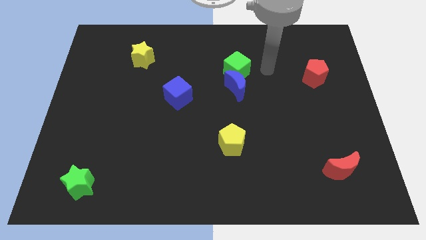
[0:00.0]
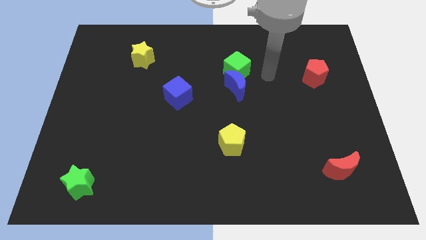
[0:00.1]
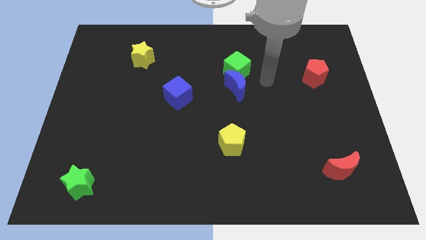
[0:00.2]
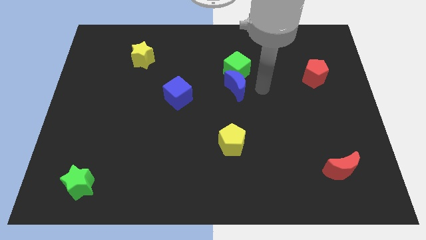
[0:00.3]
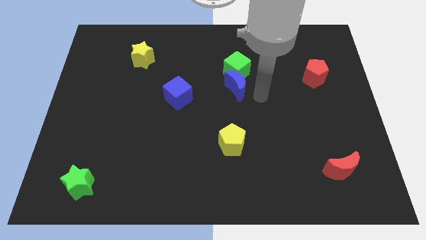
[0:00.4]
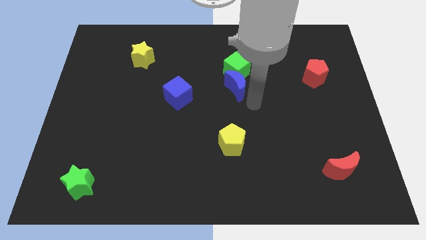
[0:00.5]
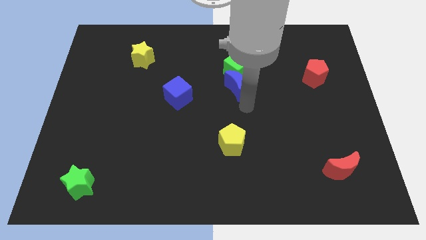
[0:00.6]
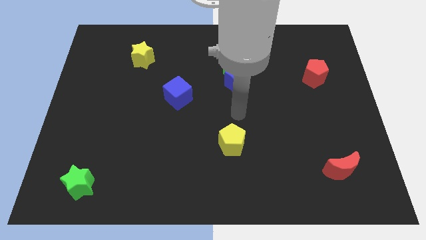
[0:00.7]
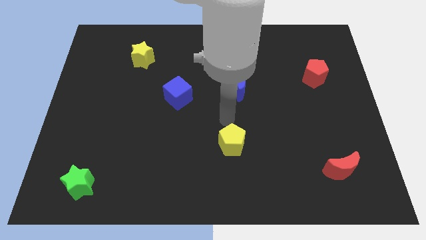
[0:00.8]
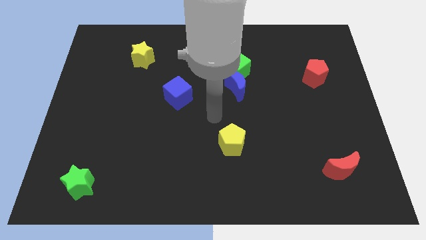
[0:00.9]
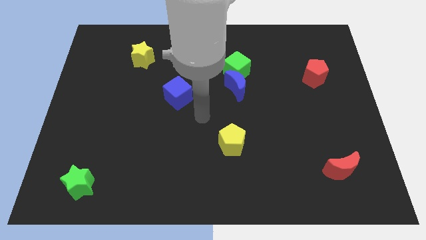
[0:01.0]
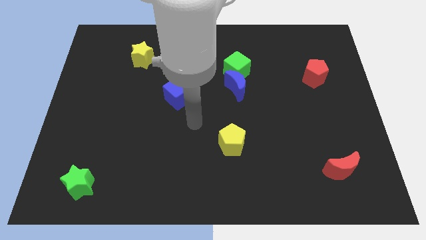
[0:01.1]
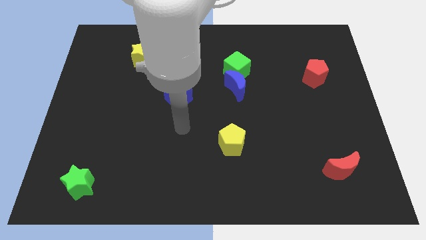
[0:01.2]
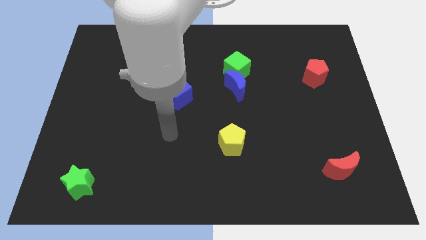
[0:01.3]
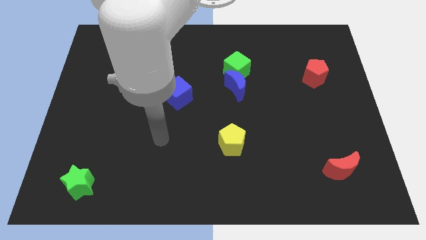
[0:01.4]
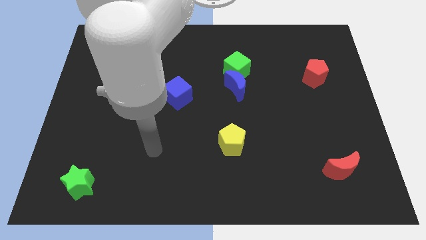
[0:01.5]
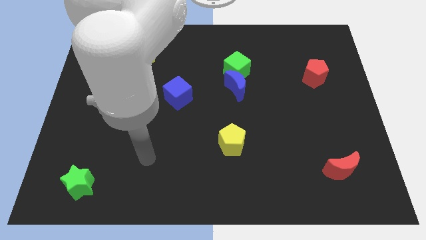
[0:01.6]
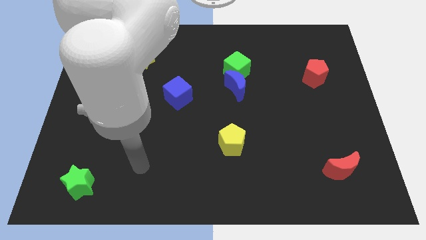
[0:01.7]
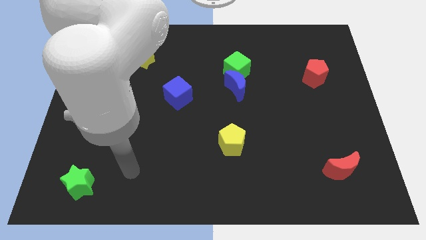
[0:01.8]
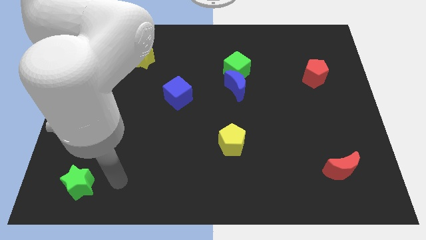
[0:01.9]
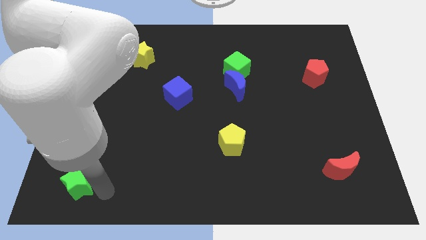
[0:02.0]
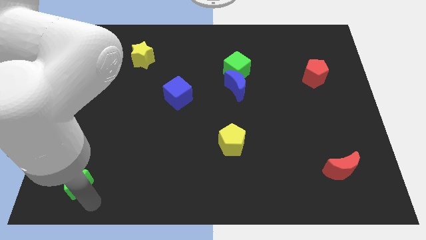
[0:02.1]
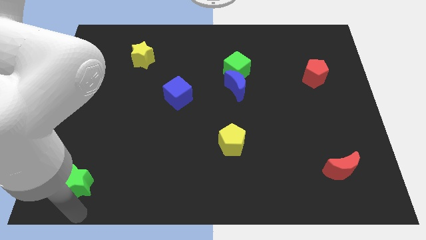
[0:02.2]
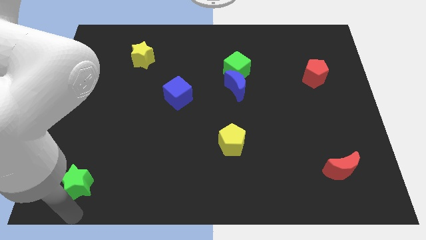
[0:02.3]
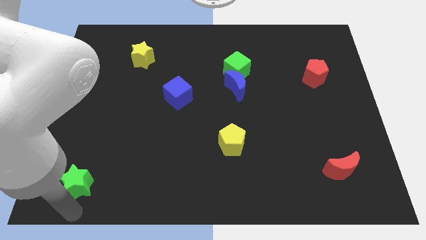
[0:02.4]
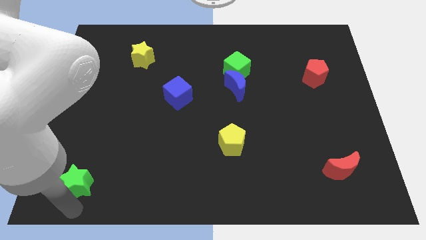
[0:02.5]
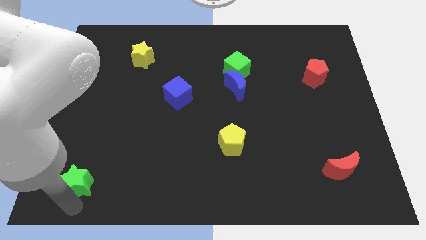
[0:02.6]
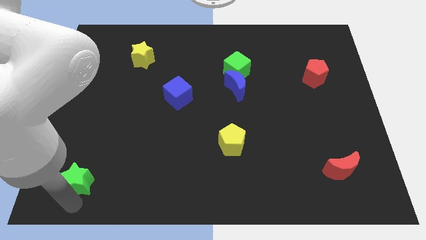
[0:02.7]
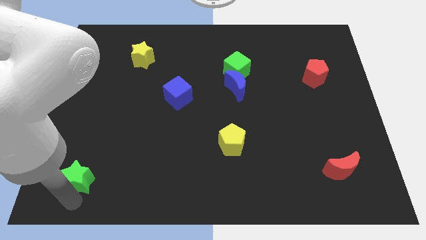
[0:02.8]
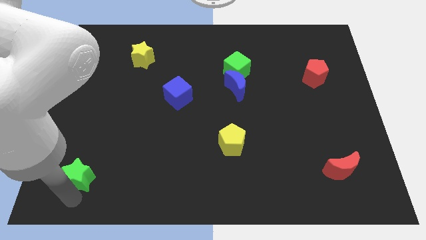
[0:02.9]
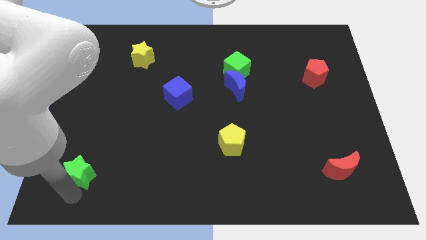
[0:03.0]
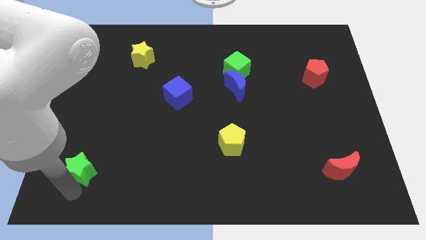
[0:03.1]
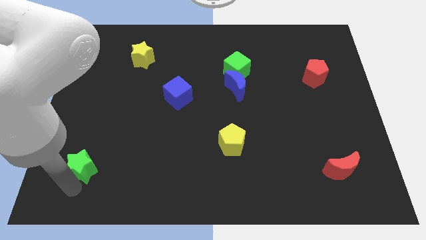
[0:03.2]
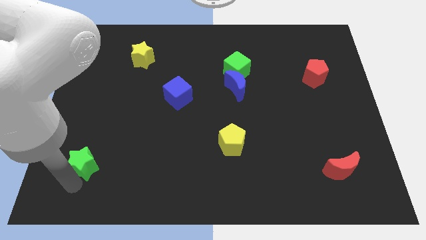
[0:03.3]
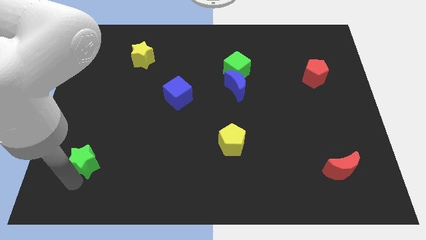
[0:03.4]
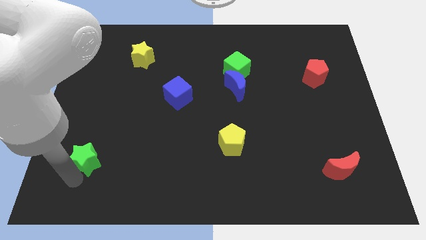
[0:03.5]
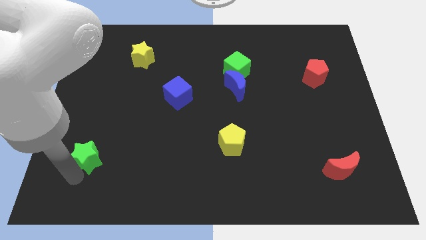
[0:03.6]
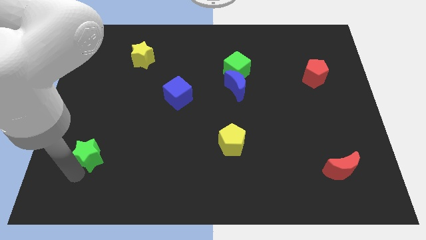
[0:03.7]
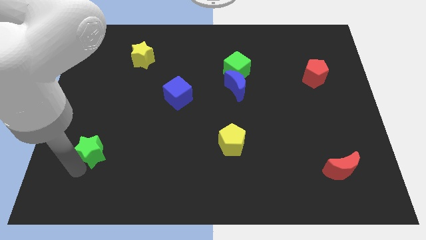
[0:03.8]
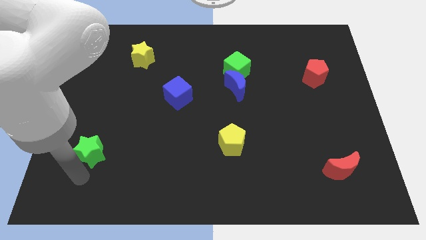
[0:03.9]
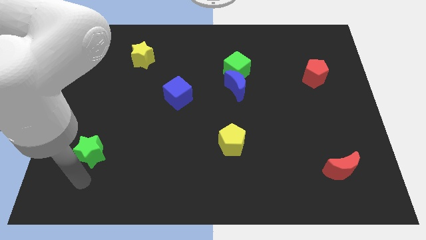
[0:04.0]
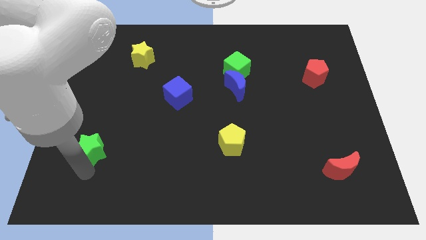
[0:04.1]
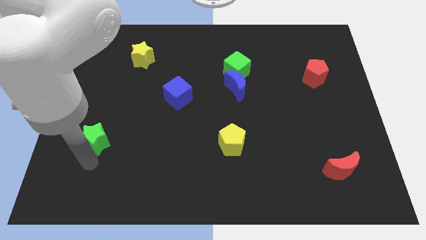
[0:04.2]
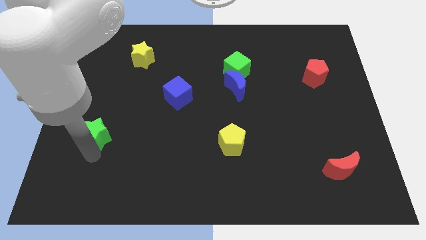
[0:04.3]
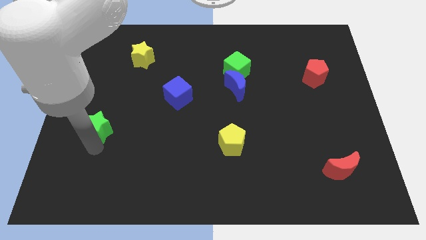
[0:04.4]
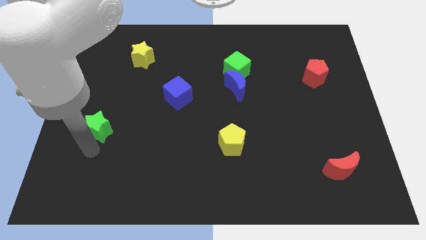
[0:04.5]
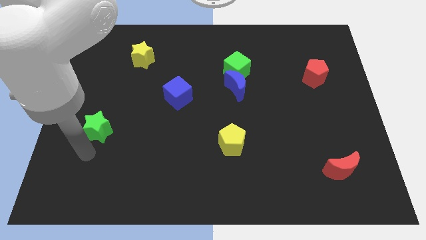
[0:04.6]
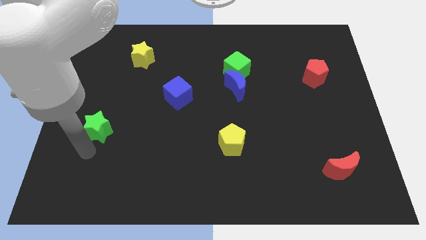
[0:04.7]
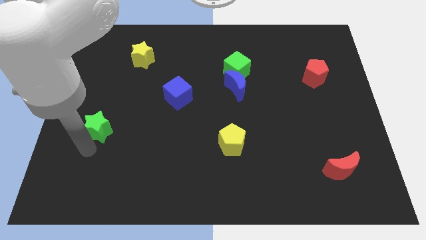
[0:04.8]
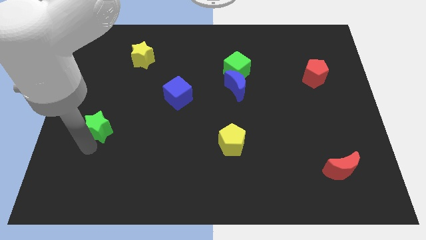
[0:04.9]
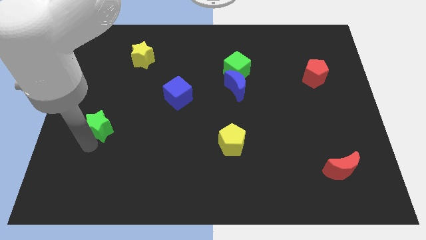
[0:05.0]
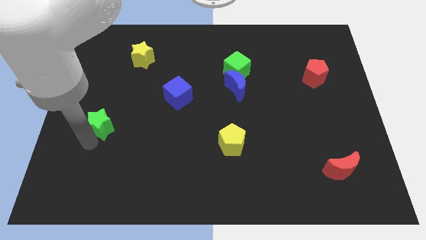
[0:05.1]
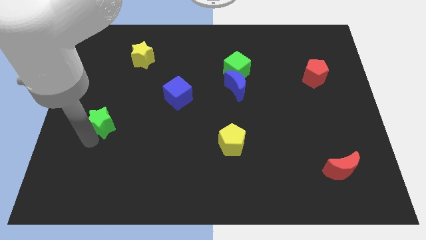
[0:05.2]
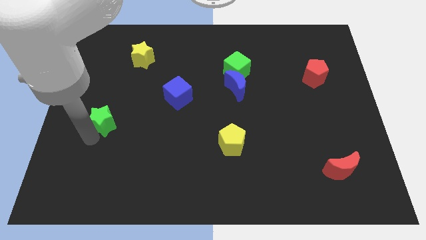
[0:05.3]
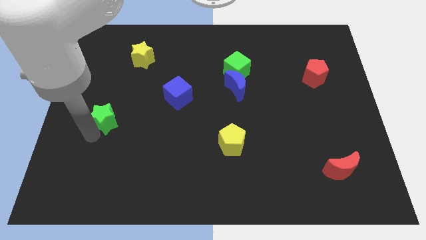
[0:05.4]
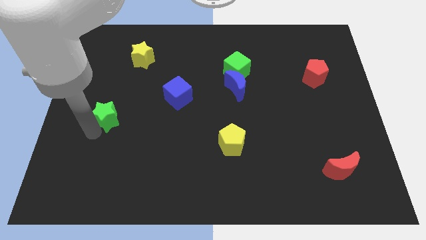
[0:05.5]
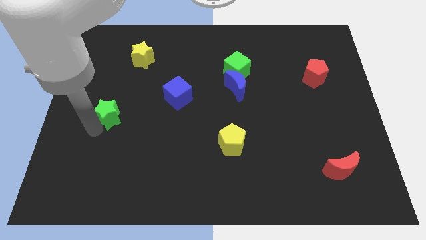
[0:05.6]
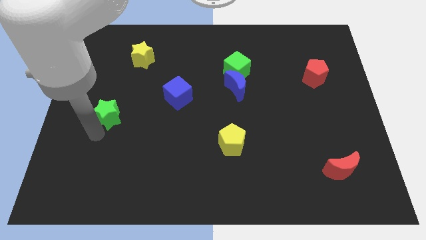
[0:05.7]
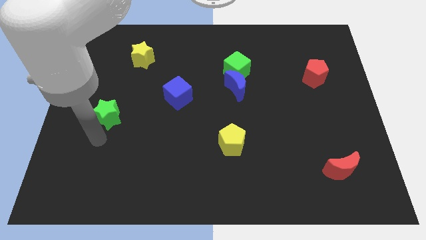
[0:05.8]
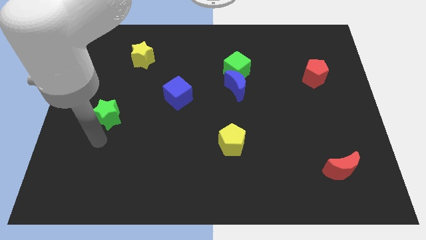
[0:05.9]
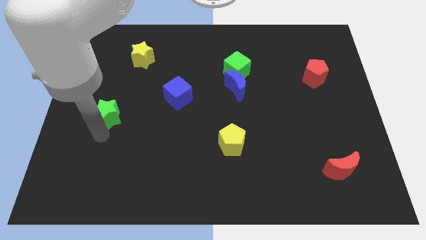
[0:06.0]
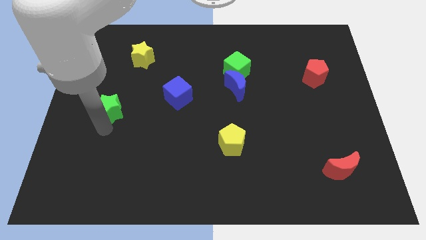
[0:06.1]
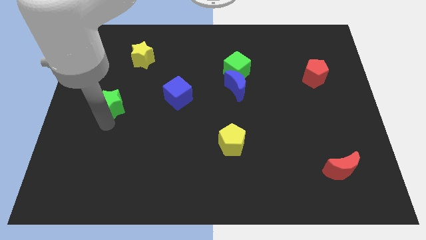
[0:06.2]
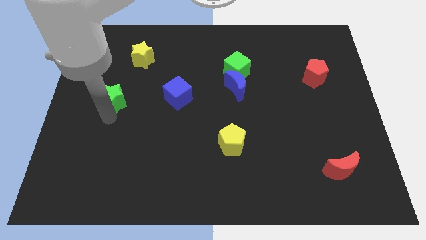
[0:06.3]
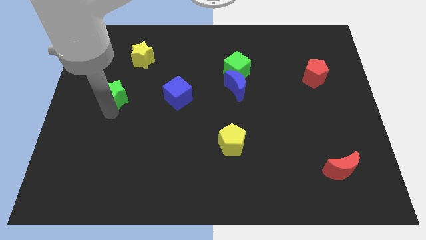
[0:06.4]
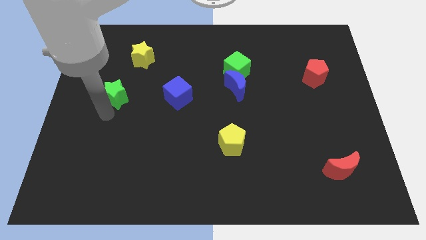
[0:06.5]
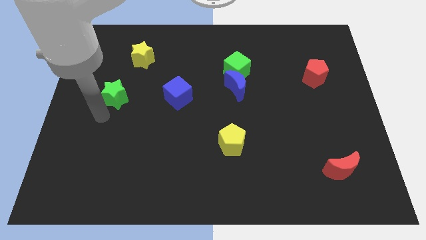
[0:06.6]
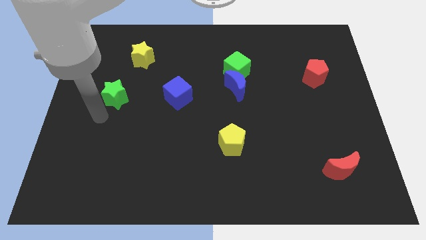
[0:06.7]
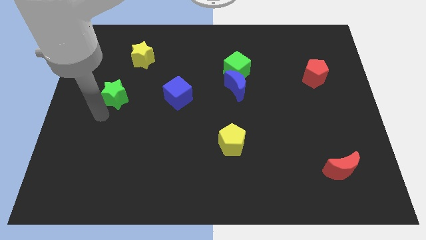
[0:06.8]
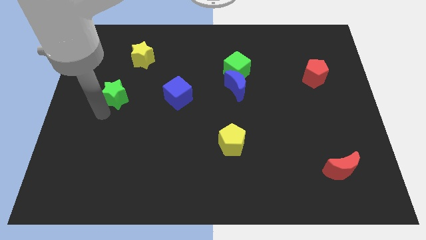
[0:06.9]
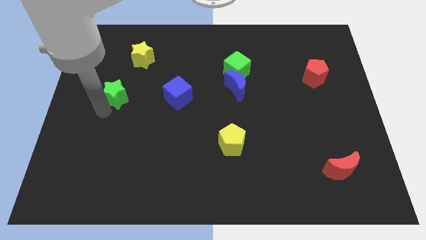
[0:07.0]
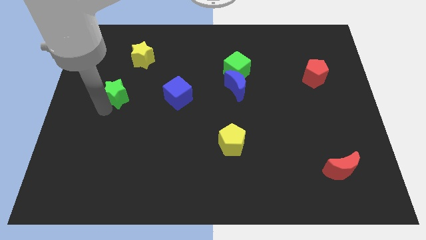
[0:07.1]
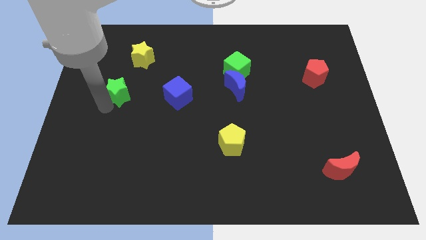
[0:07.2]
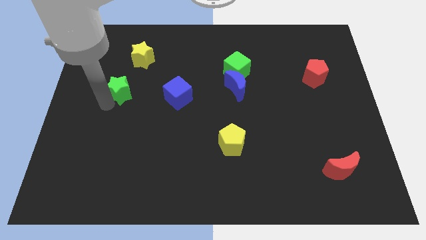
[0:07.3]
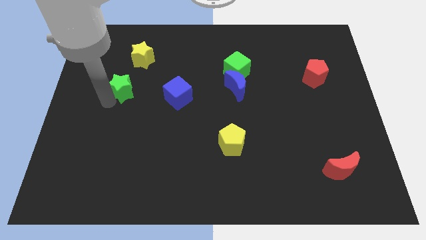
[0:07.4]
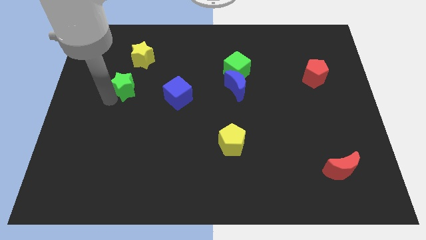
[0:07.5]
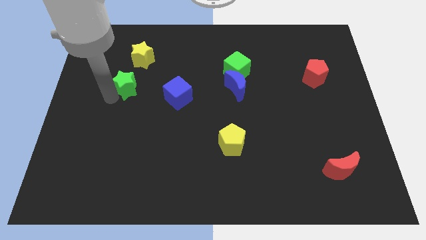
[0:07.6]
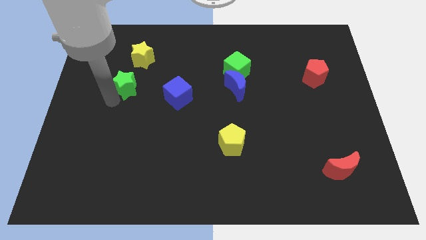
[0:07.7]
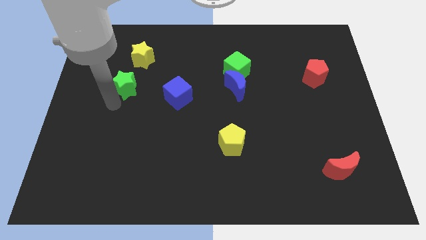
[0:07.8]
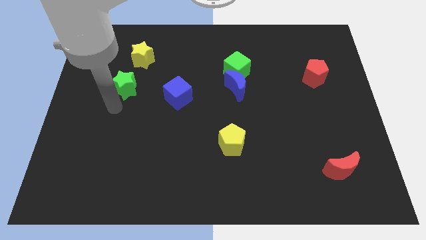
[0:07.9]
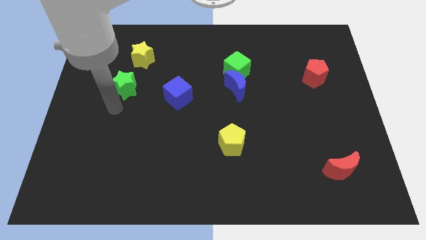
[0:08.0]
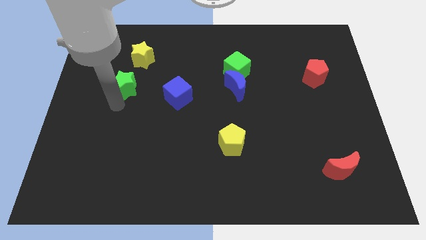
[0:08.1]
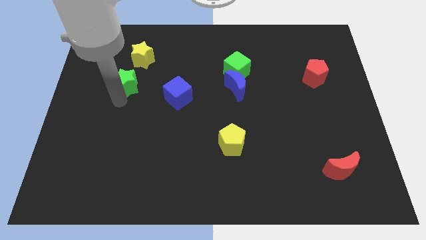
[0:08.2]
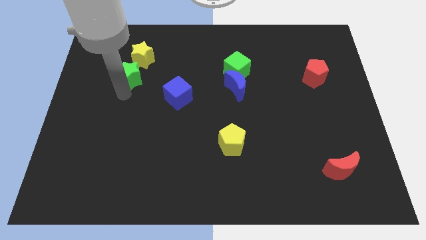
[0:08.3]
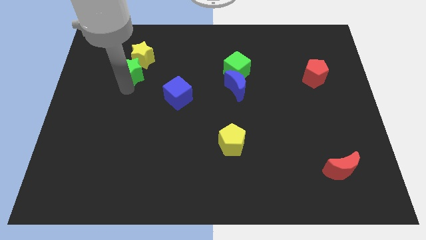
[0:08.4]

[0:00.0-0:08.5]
slide the green star next to the yellow star
